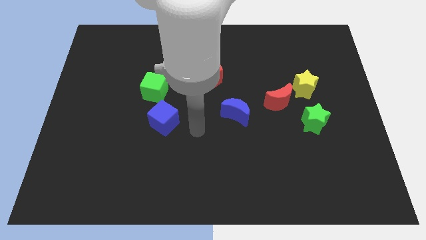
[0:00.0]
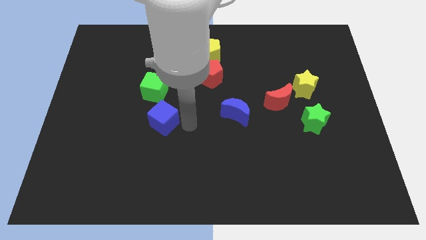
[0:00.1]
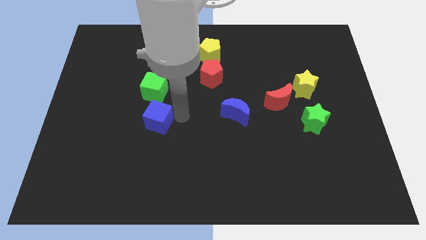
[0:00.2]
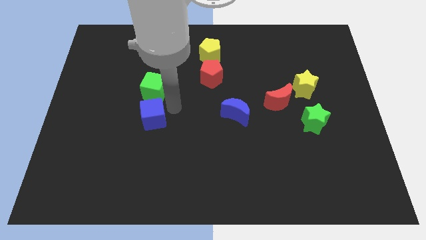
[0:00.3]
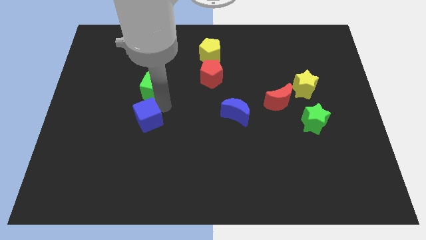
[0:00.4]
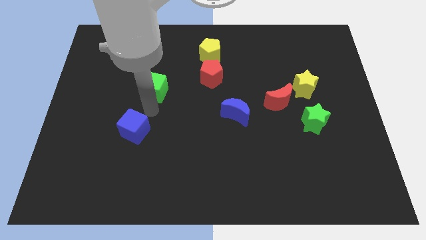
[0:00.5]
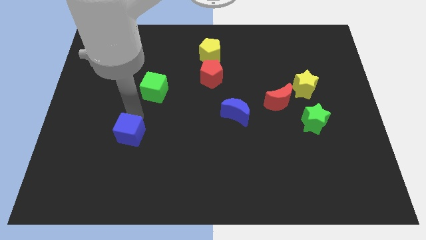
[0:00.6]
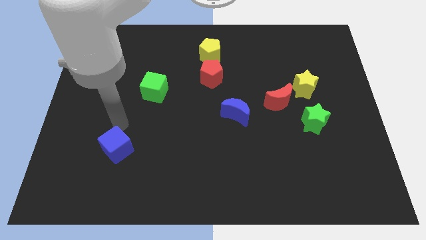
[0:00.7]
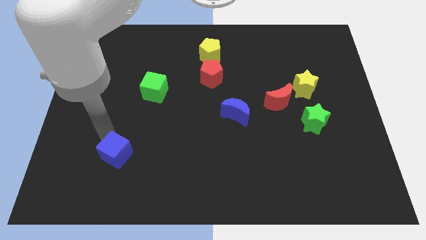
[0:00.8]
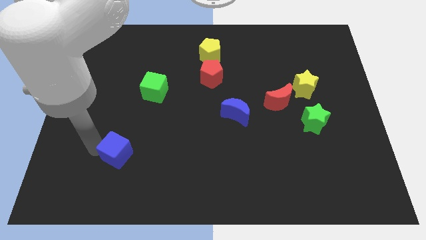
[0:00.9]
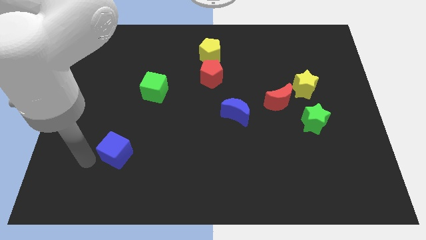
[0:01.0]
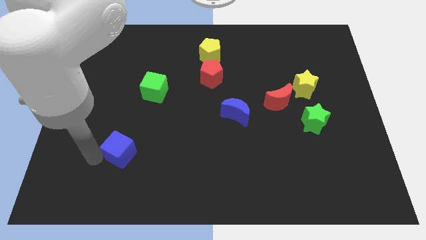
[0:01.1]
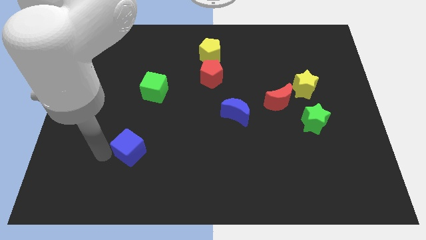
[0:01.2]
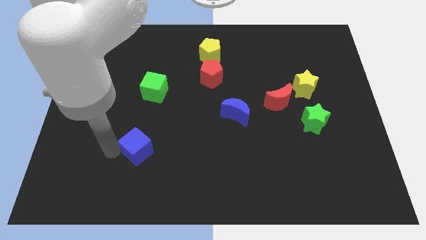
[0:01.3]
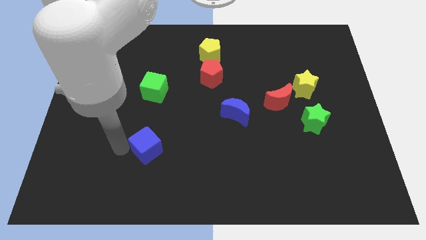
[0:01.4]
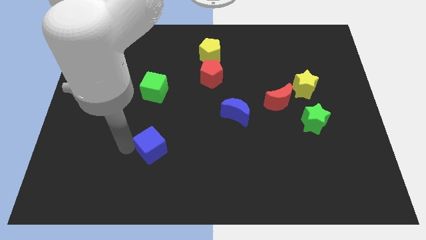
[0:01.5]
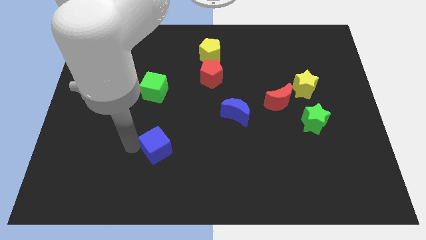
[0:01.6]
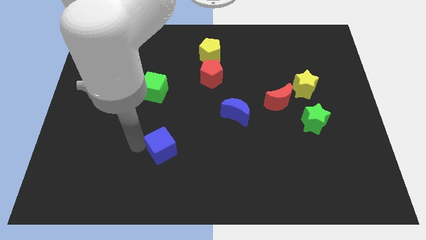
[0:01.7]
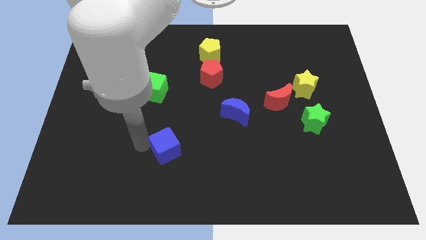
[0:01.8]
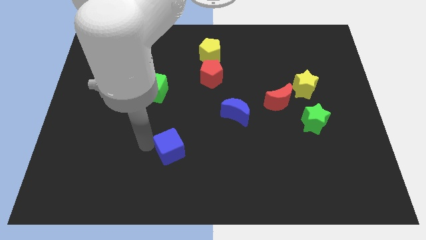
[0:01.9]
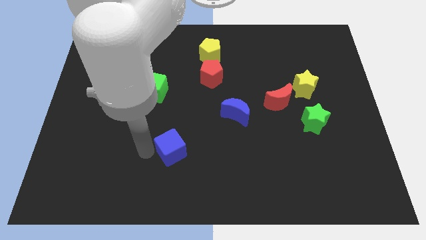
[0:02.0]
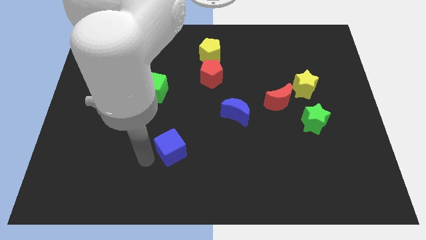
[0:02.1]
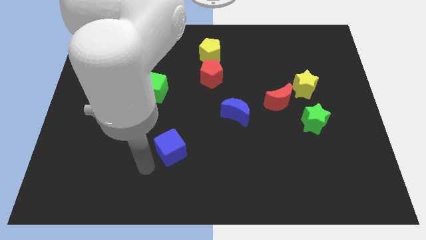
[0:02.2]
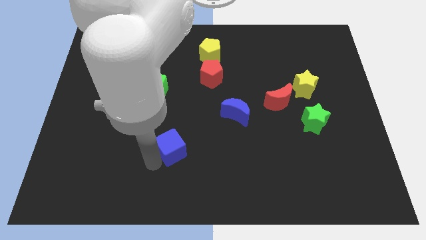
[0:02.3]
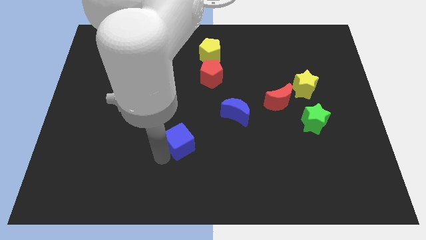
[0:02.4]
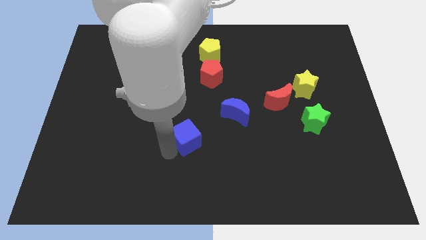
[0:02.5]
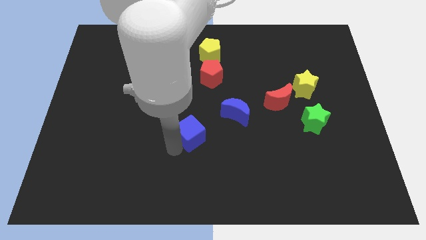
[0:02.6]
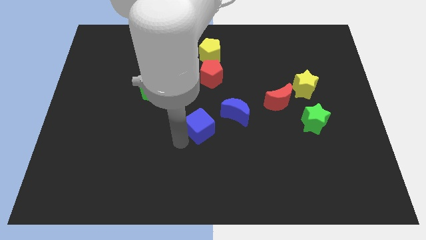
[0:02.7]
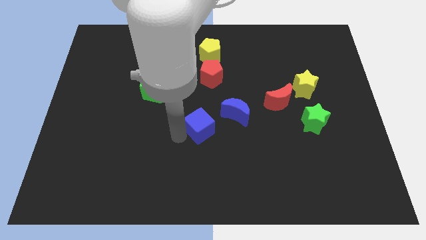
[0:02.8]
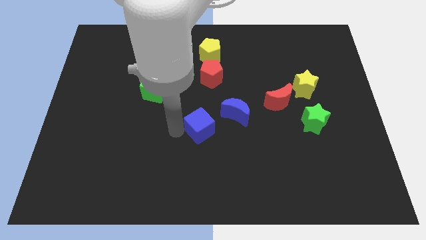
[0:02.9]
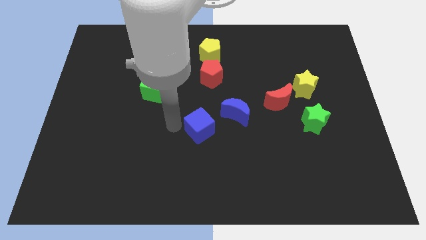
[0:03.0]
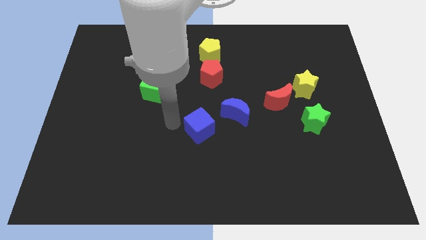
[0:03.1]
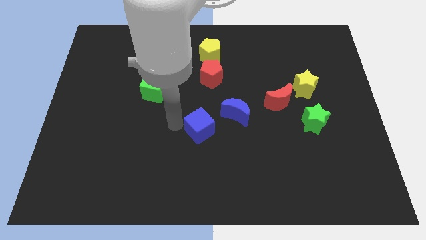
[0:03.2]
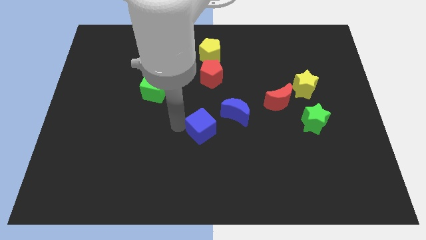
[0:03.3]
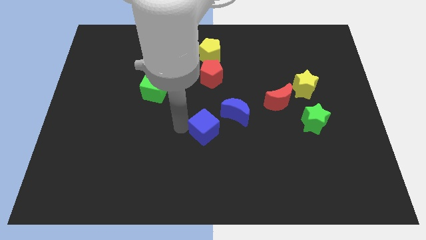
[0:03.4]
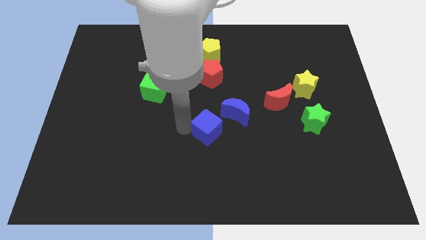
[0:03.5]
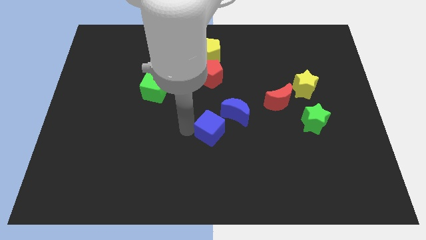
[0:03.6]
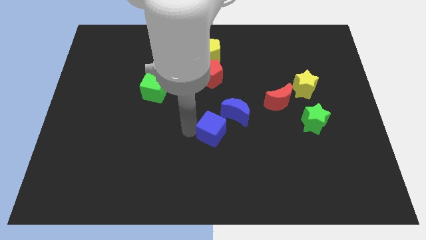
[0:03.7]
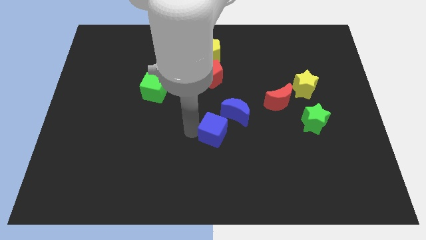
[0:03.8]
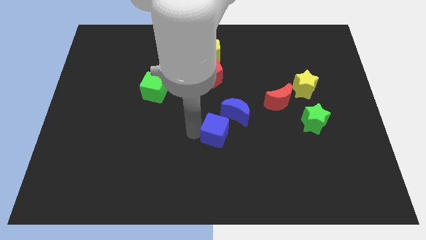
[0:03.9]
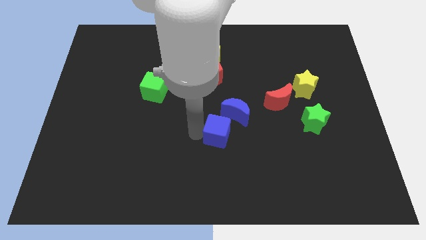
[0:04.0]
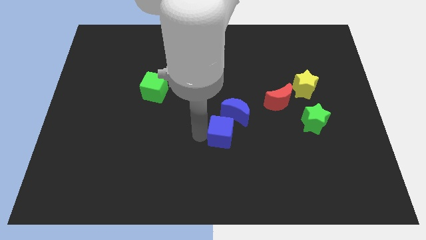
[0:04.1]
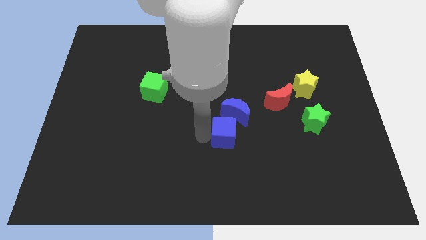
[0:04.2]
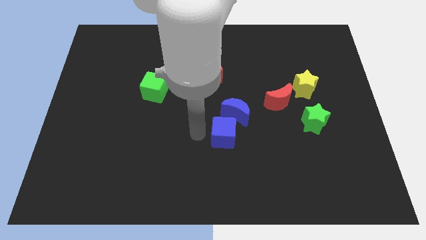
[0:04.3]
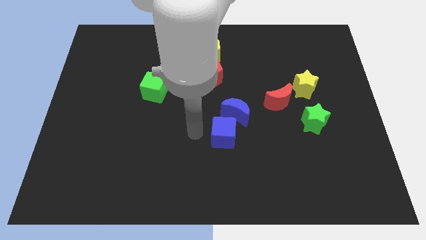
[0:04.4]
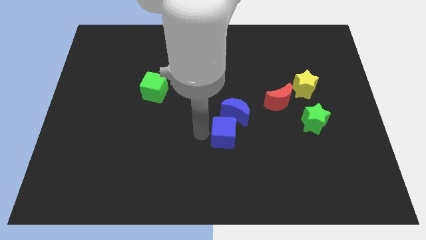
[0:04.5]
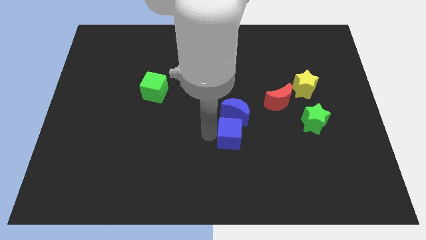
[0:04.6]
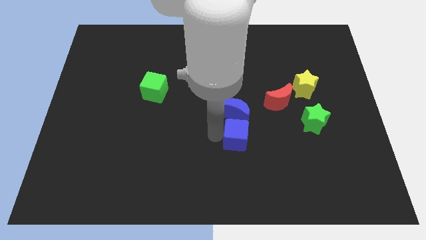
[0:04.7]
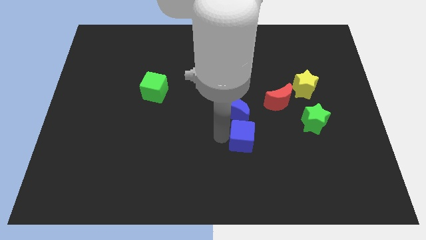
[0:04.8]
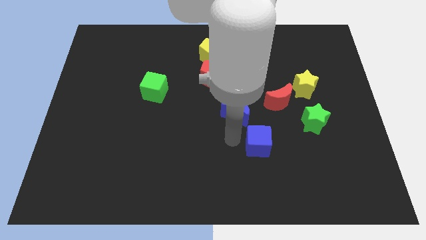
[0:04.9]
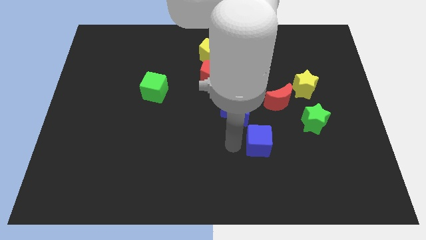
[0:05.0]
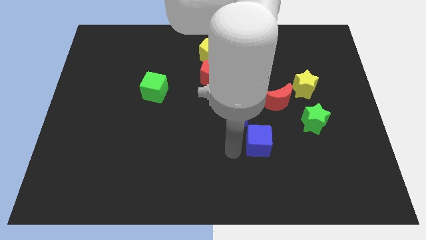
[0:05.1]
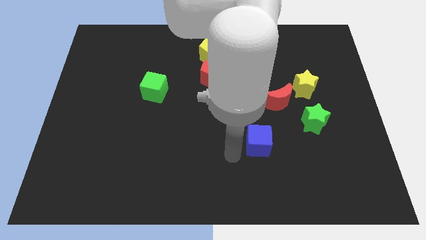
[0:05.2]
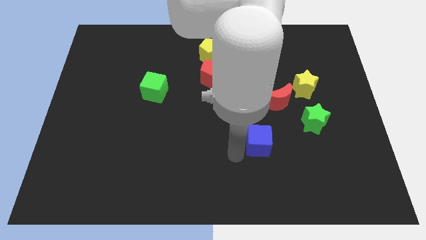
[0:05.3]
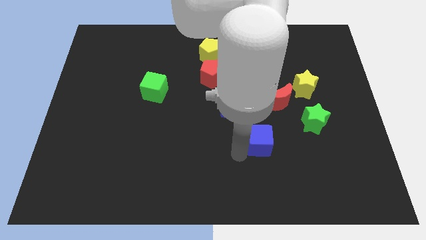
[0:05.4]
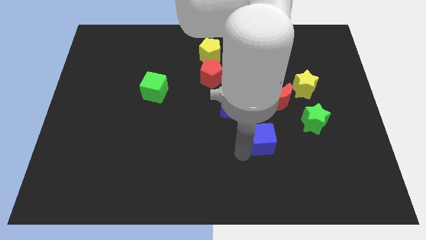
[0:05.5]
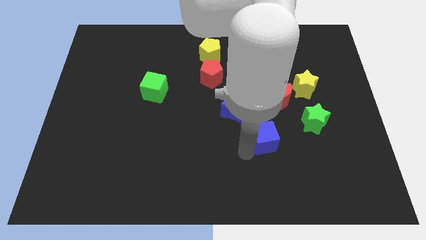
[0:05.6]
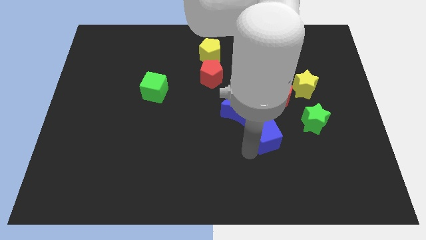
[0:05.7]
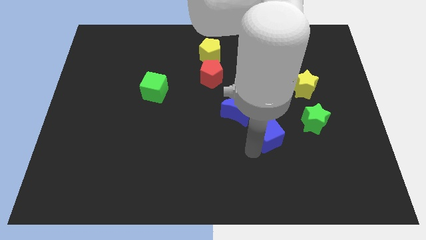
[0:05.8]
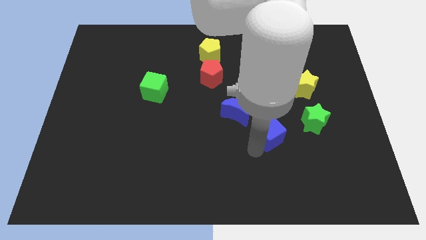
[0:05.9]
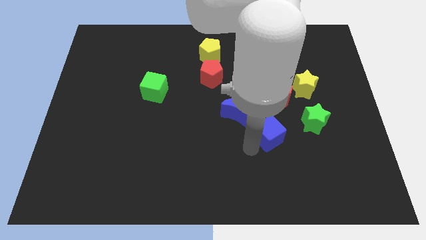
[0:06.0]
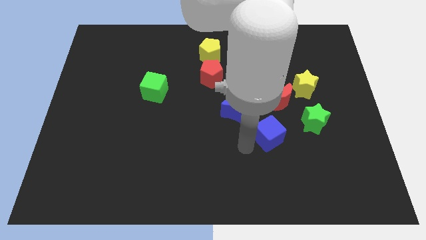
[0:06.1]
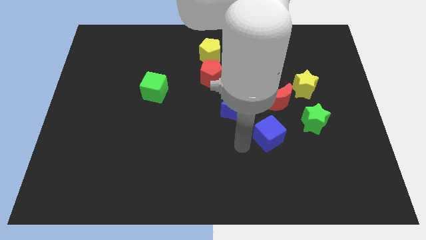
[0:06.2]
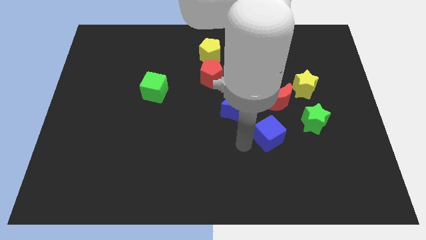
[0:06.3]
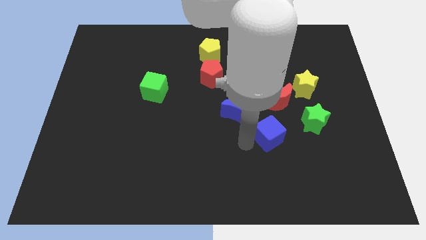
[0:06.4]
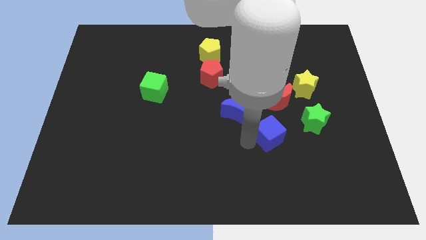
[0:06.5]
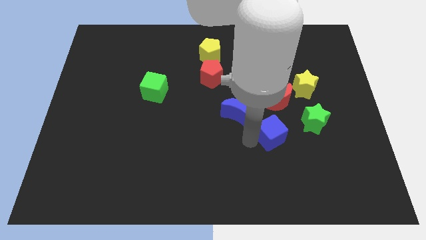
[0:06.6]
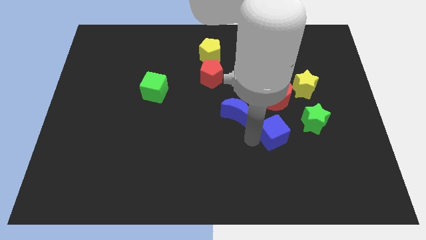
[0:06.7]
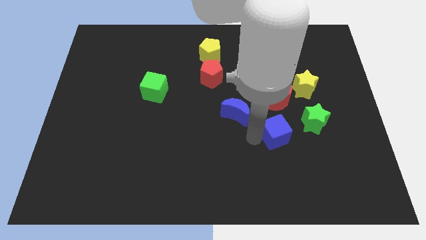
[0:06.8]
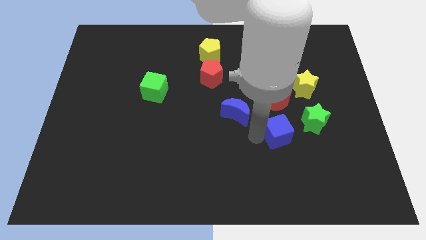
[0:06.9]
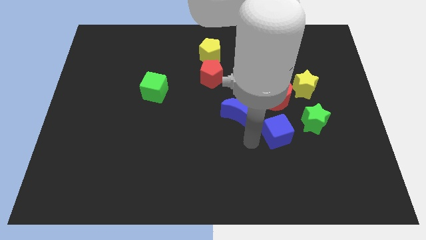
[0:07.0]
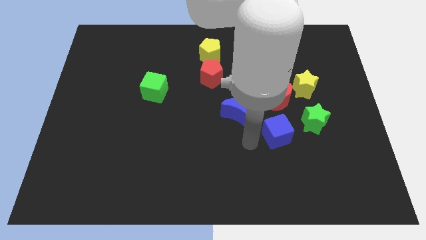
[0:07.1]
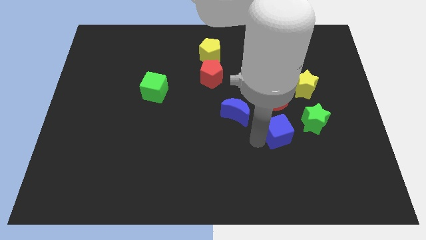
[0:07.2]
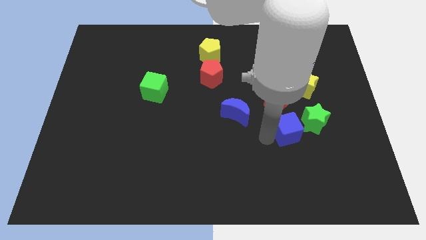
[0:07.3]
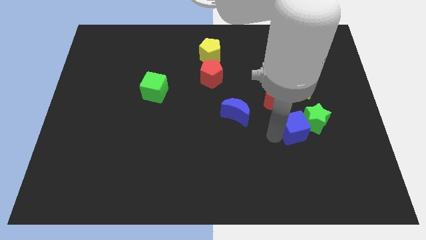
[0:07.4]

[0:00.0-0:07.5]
push the blue cube to the green star
